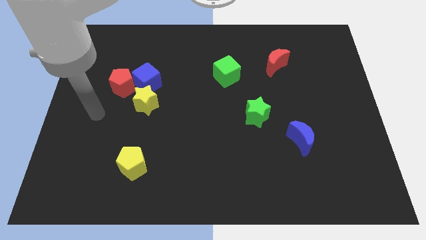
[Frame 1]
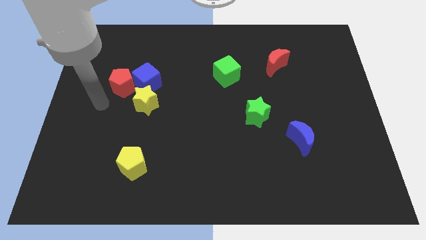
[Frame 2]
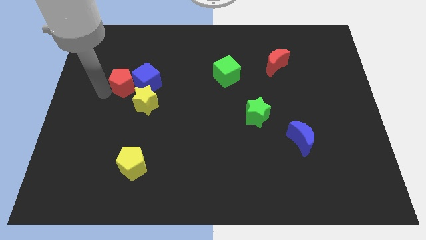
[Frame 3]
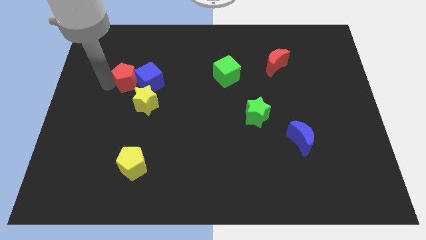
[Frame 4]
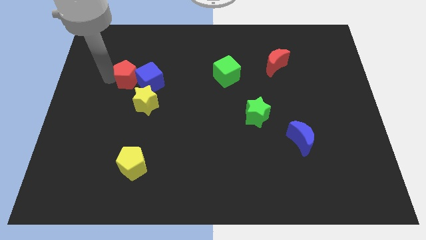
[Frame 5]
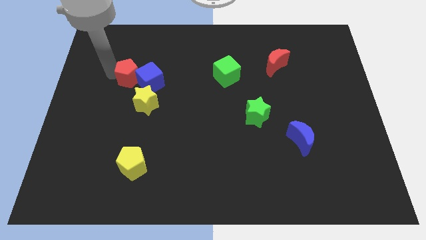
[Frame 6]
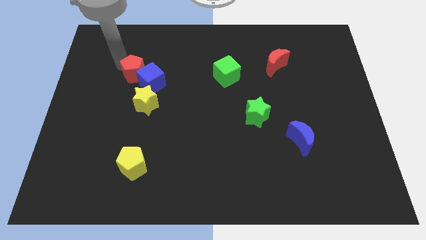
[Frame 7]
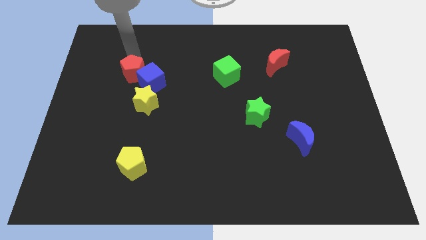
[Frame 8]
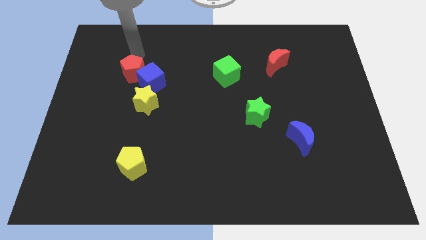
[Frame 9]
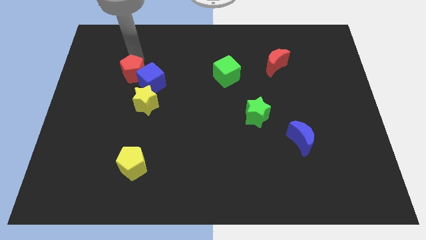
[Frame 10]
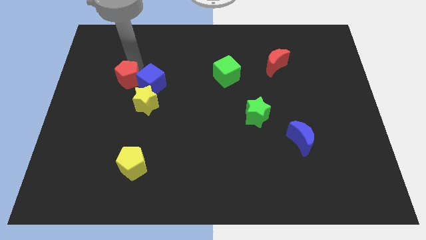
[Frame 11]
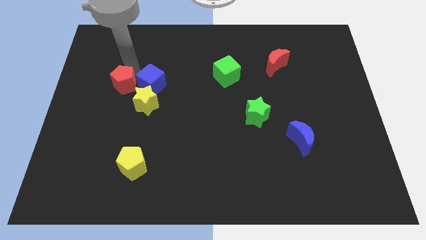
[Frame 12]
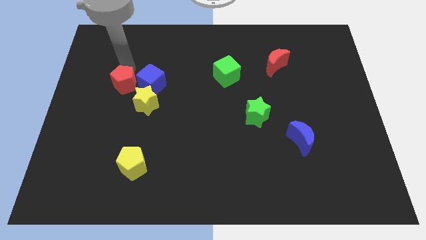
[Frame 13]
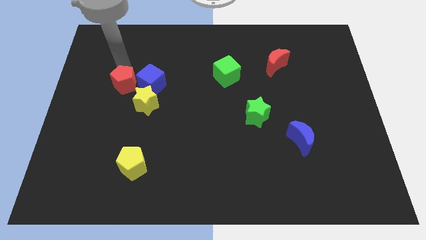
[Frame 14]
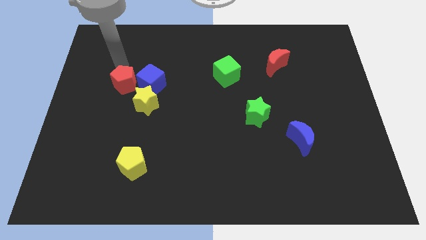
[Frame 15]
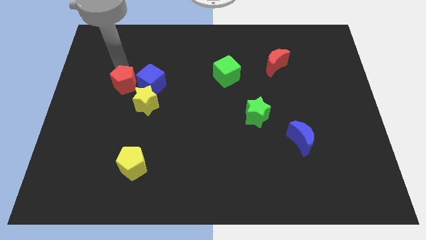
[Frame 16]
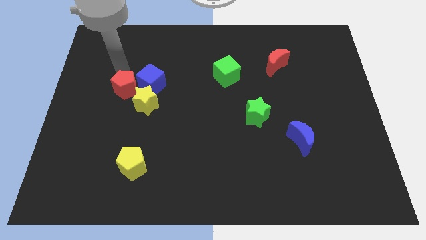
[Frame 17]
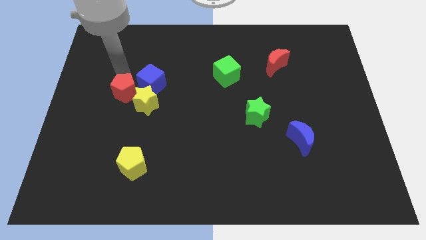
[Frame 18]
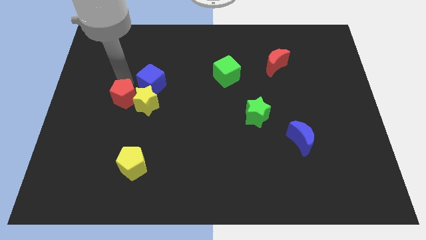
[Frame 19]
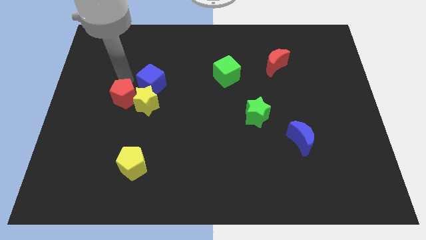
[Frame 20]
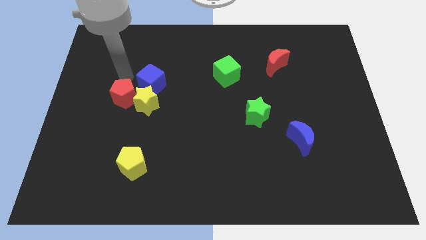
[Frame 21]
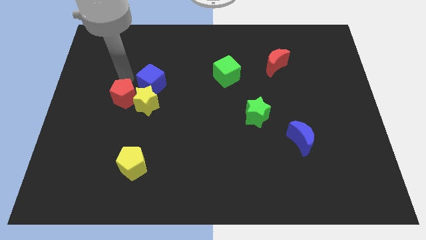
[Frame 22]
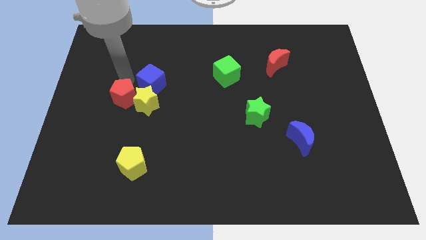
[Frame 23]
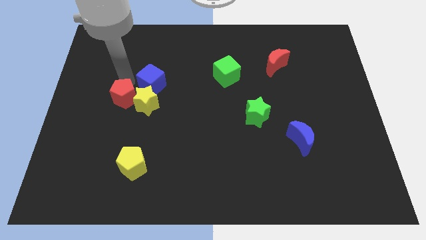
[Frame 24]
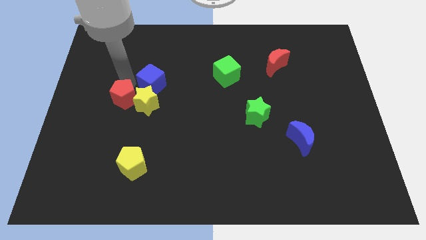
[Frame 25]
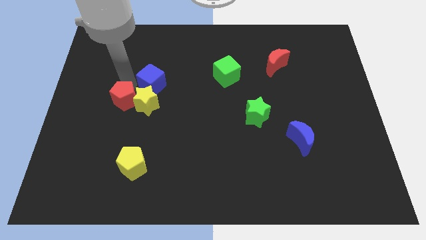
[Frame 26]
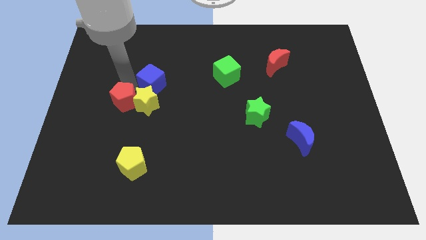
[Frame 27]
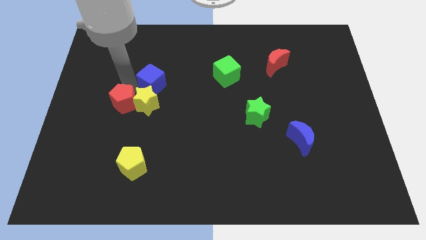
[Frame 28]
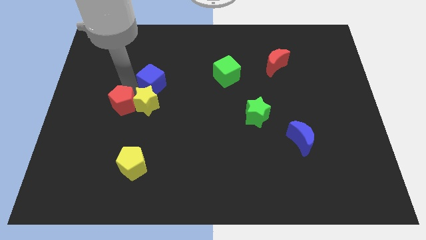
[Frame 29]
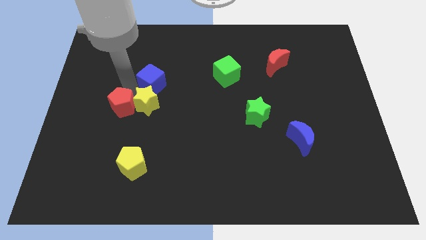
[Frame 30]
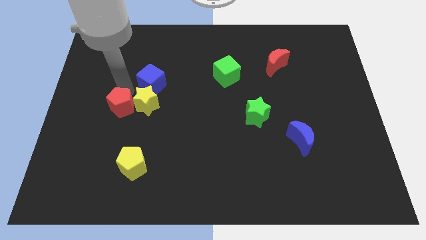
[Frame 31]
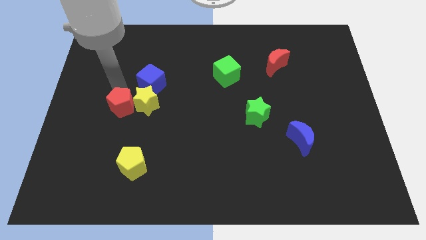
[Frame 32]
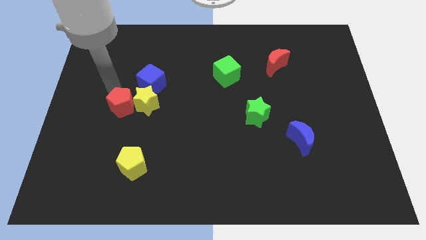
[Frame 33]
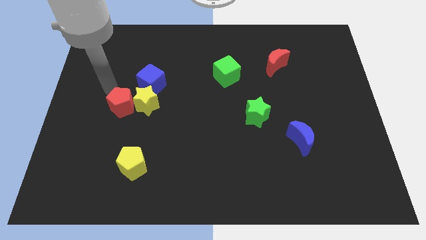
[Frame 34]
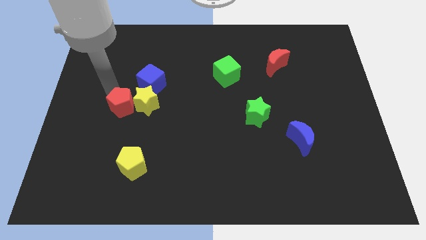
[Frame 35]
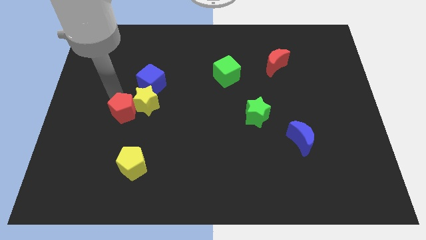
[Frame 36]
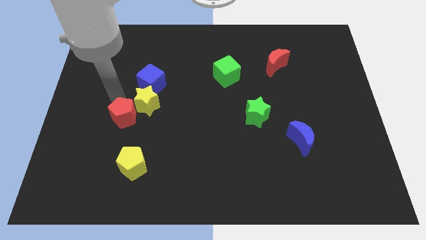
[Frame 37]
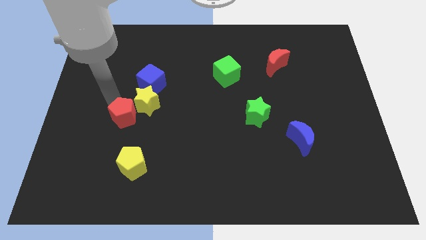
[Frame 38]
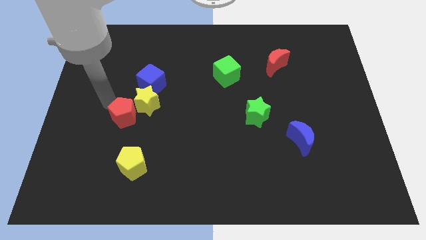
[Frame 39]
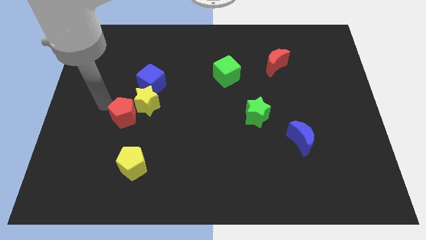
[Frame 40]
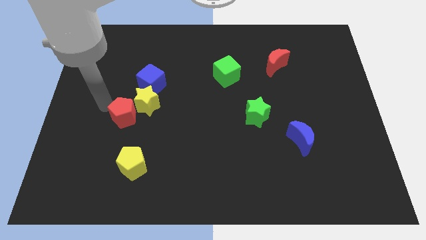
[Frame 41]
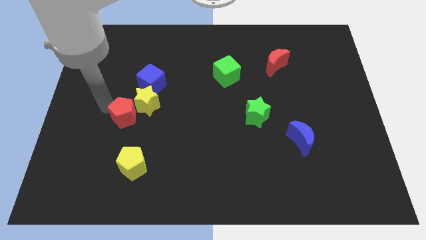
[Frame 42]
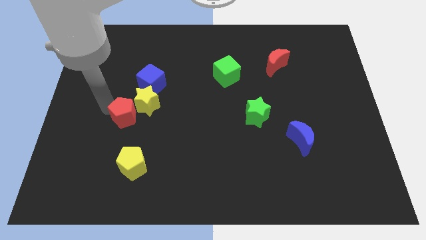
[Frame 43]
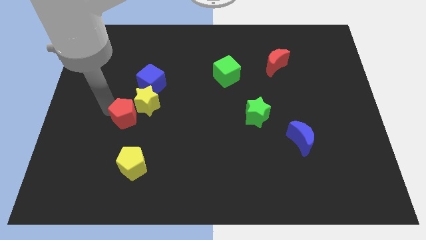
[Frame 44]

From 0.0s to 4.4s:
slightly slide the red pentagon downwards and right diagonally

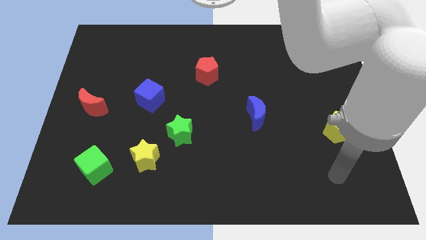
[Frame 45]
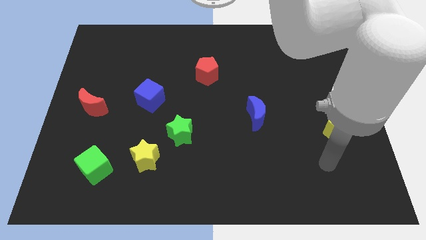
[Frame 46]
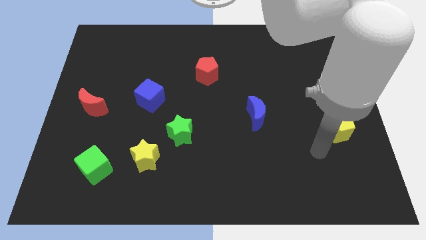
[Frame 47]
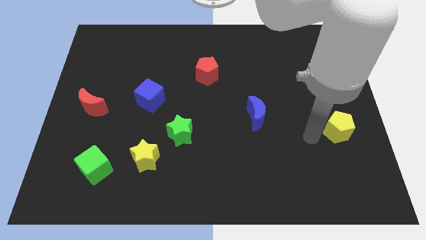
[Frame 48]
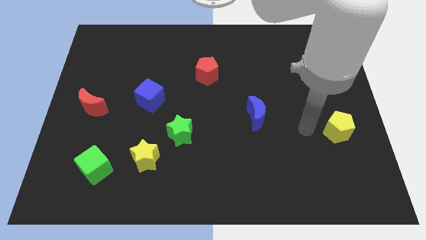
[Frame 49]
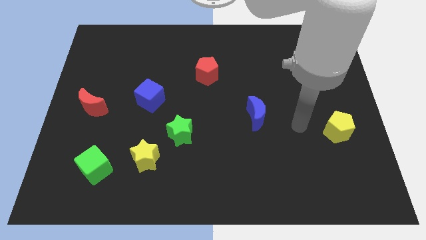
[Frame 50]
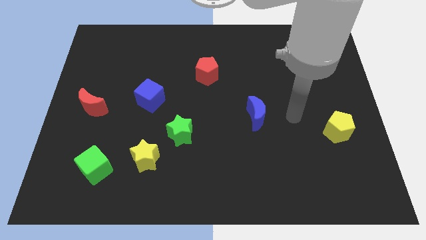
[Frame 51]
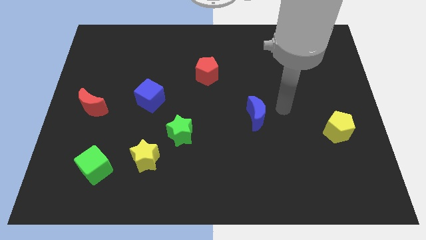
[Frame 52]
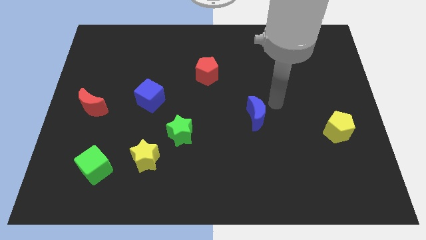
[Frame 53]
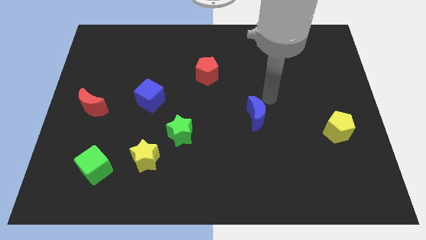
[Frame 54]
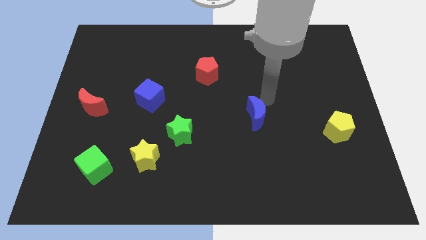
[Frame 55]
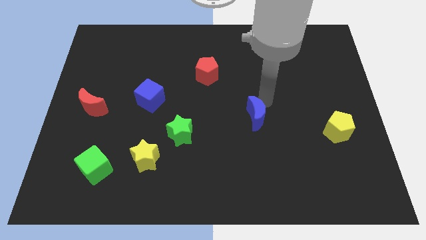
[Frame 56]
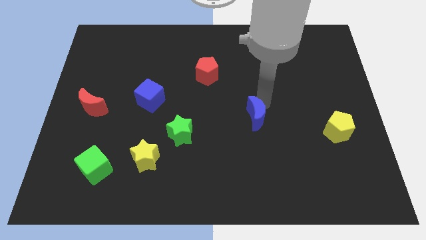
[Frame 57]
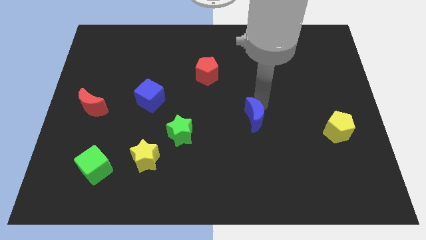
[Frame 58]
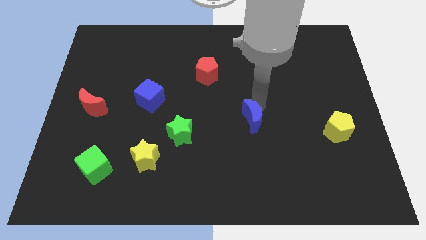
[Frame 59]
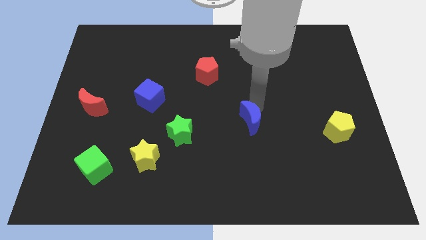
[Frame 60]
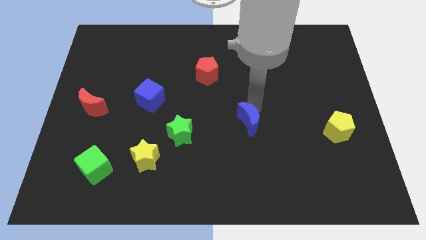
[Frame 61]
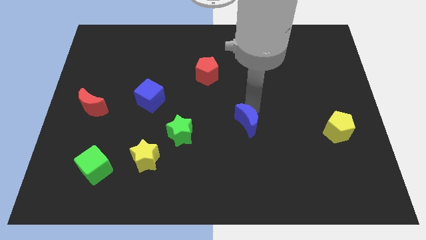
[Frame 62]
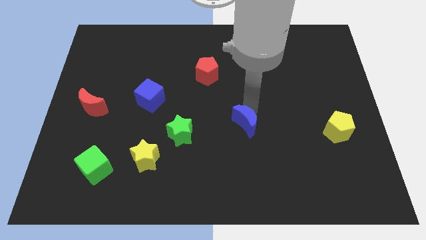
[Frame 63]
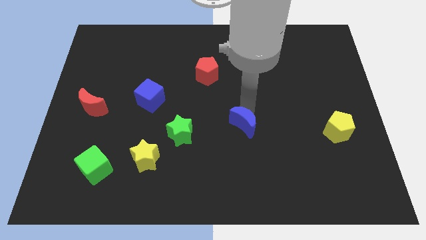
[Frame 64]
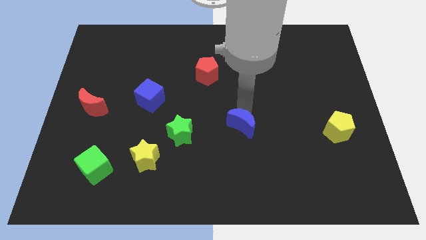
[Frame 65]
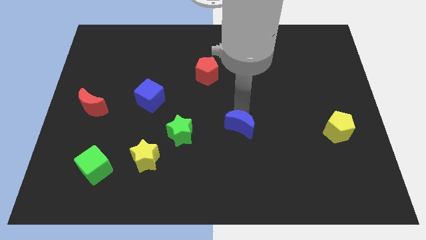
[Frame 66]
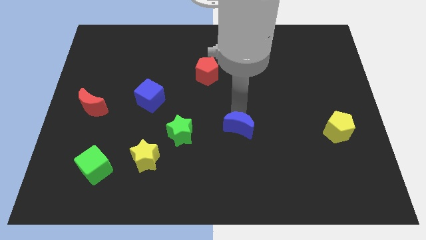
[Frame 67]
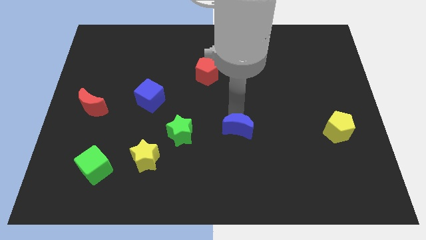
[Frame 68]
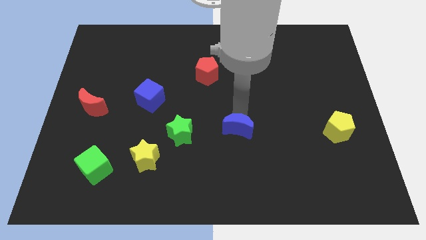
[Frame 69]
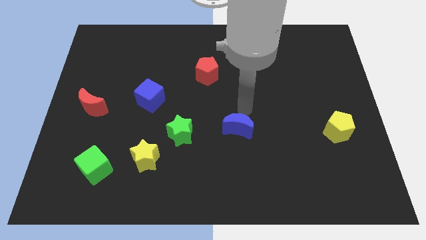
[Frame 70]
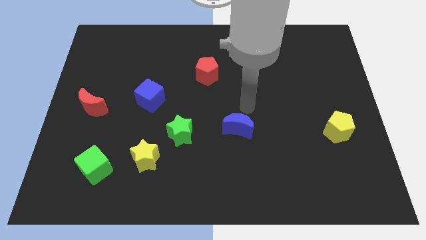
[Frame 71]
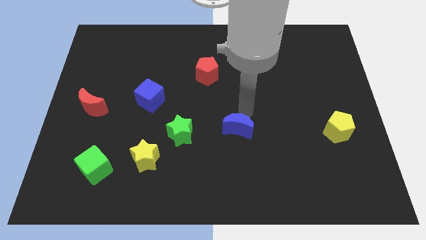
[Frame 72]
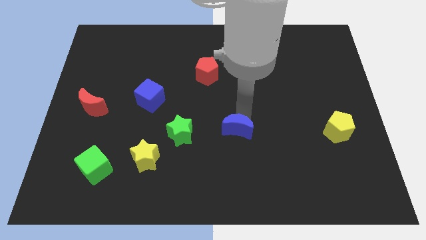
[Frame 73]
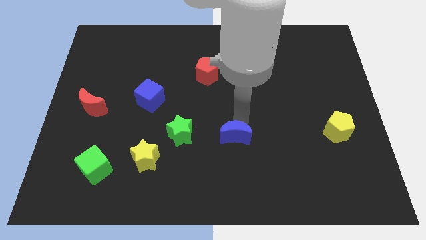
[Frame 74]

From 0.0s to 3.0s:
push the blue moon down and left somewhat

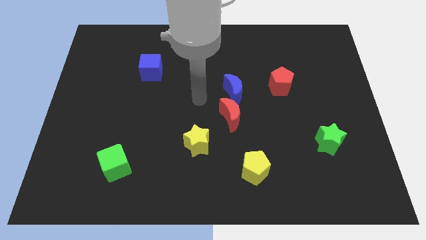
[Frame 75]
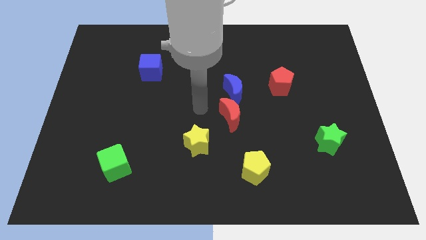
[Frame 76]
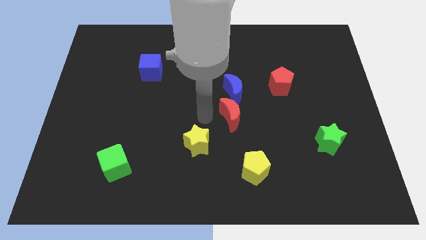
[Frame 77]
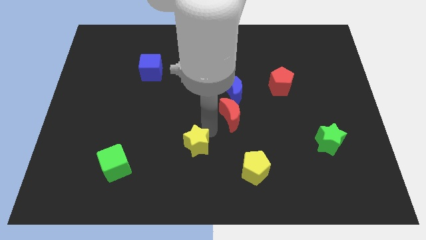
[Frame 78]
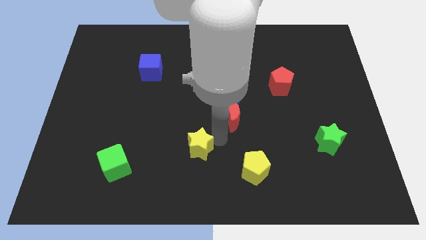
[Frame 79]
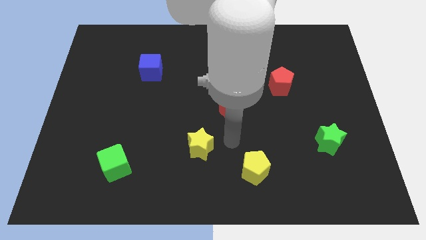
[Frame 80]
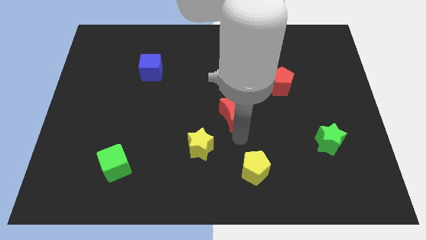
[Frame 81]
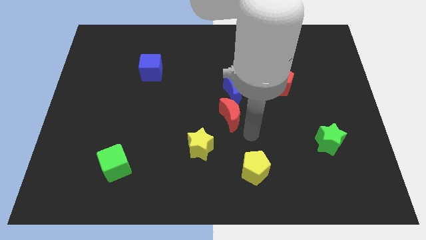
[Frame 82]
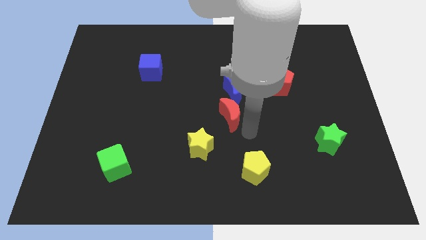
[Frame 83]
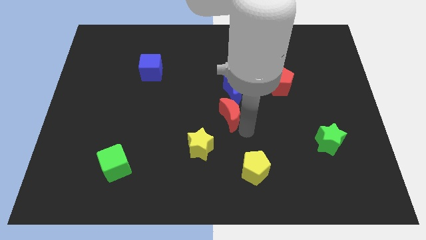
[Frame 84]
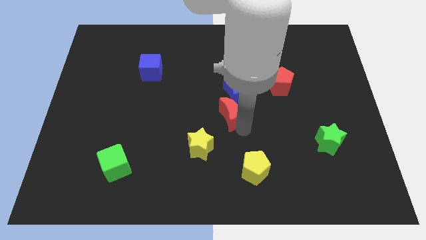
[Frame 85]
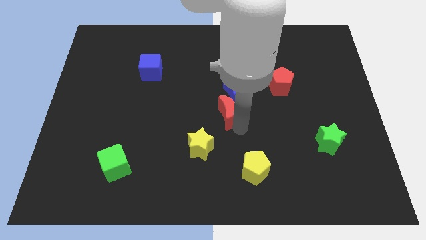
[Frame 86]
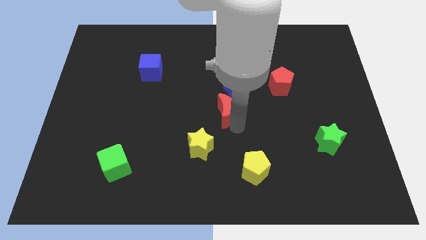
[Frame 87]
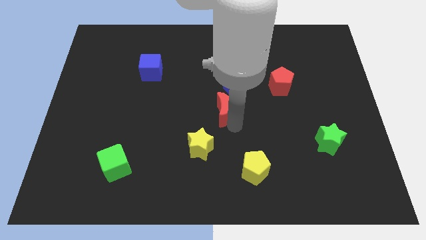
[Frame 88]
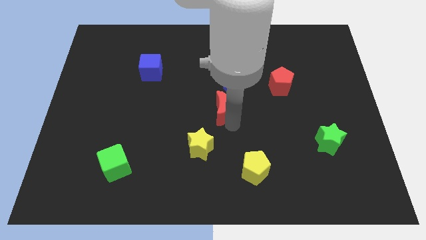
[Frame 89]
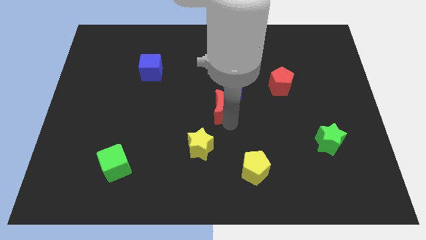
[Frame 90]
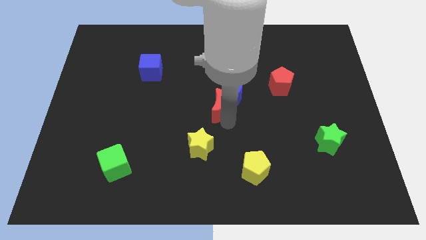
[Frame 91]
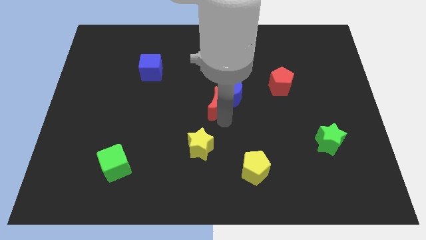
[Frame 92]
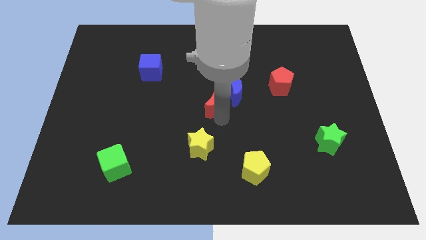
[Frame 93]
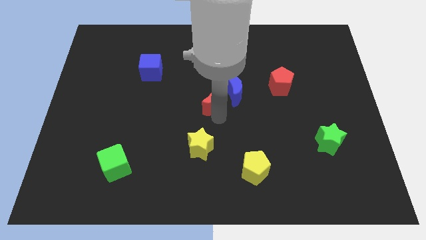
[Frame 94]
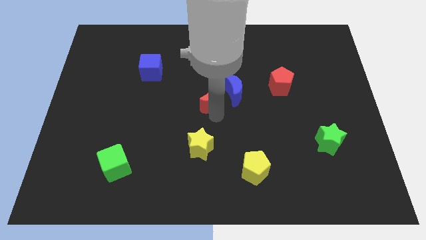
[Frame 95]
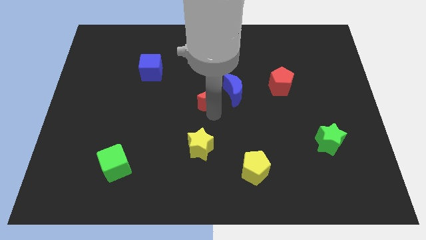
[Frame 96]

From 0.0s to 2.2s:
move the red moon diagonally upwards and to the left somewhat
